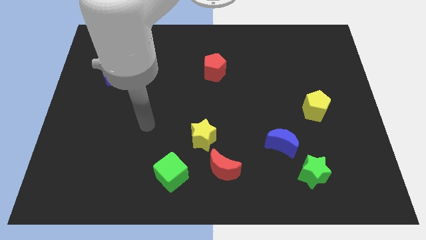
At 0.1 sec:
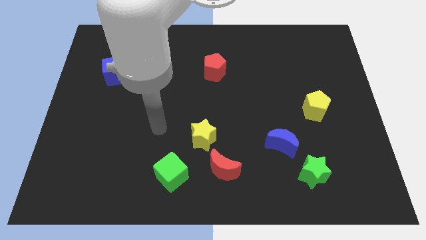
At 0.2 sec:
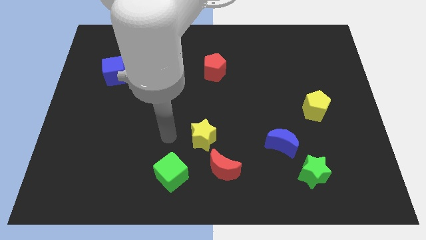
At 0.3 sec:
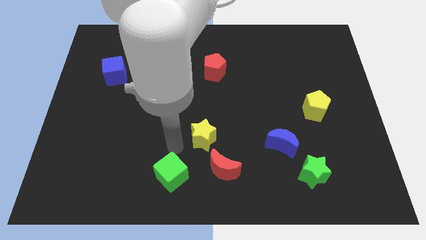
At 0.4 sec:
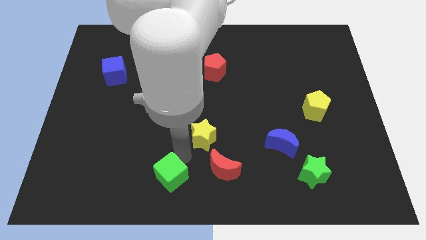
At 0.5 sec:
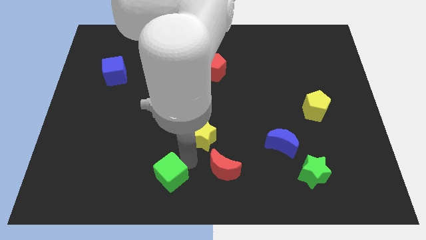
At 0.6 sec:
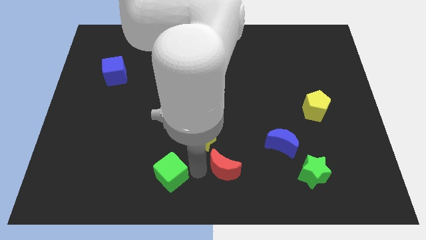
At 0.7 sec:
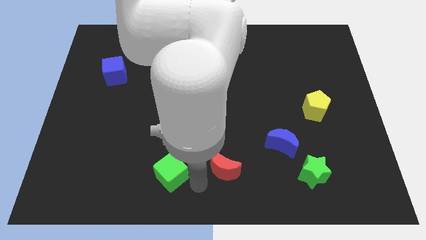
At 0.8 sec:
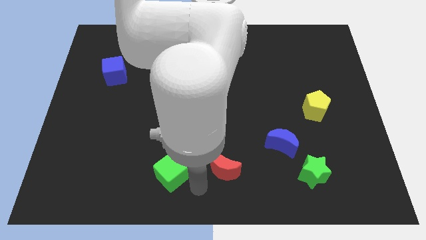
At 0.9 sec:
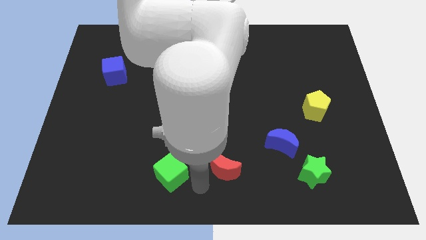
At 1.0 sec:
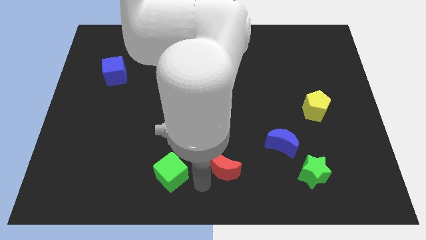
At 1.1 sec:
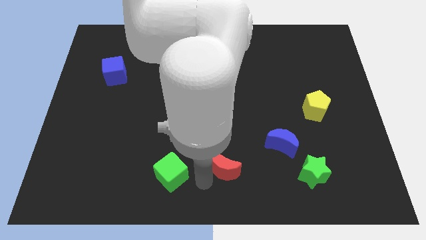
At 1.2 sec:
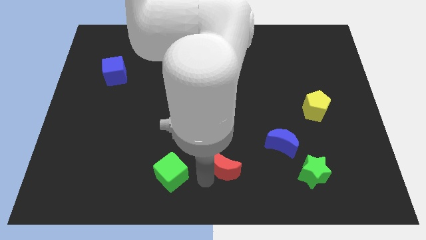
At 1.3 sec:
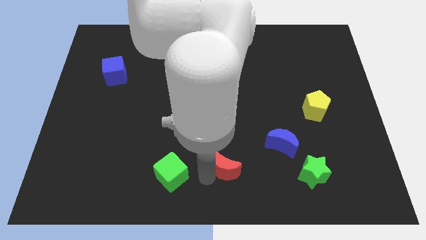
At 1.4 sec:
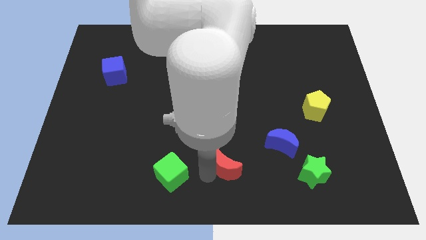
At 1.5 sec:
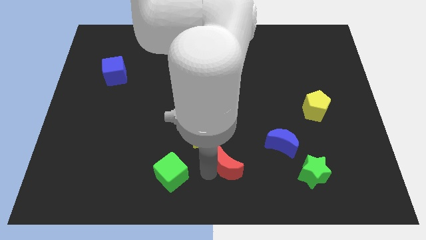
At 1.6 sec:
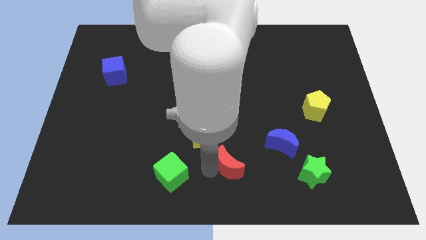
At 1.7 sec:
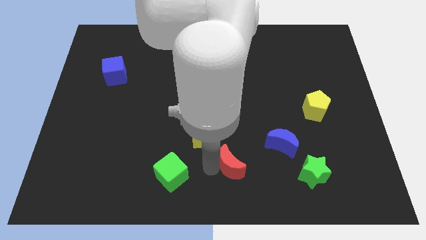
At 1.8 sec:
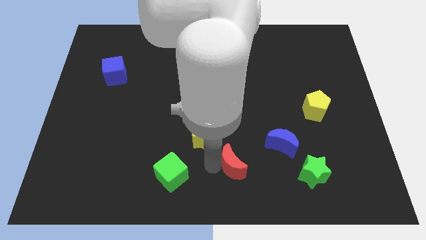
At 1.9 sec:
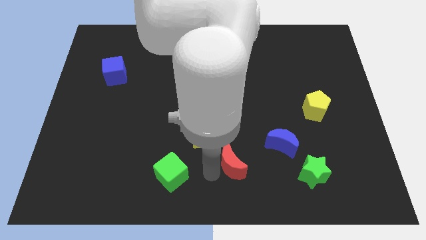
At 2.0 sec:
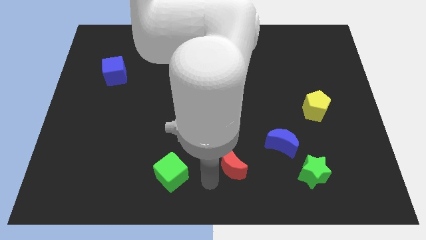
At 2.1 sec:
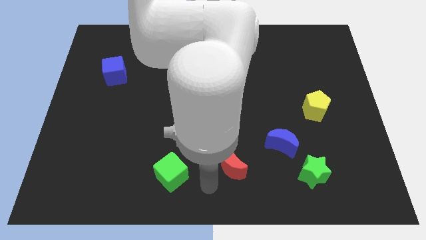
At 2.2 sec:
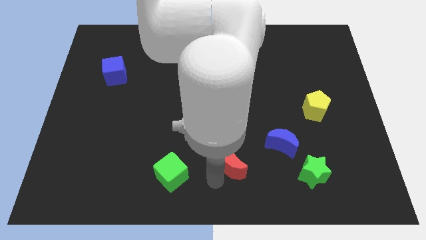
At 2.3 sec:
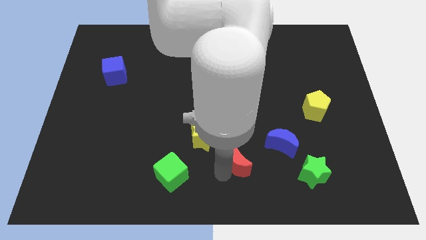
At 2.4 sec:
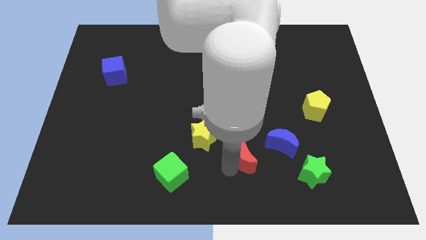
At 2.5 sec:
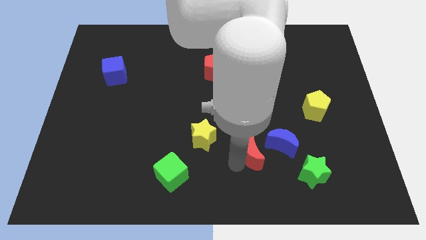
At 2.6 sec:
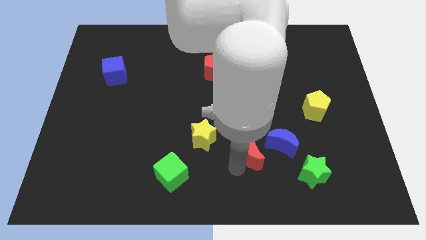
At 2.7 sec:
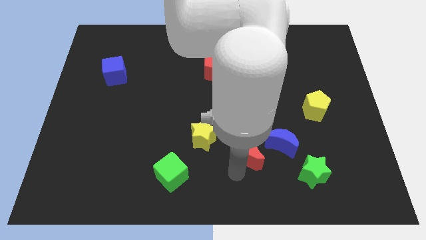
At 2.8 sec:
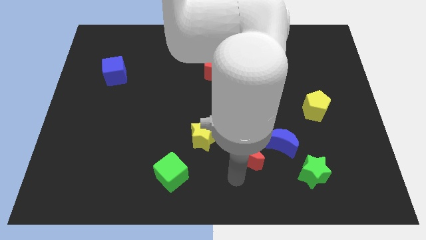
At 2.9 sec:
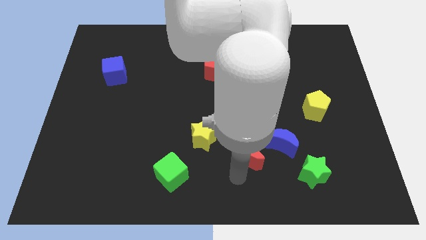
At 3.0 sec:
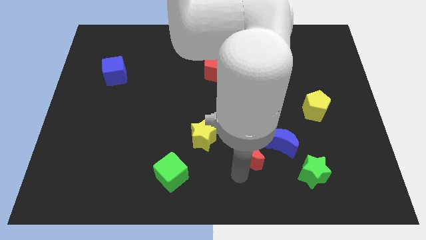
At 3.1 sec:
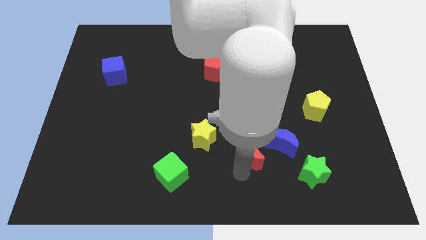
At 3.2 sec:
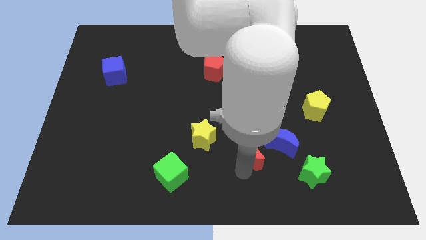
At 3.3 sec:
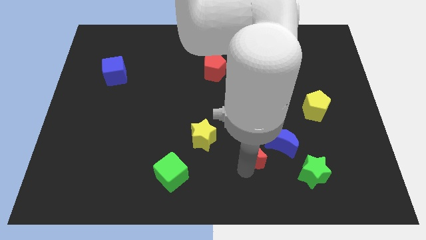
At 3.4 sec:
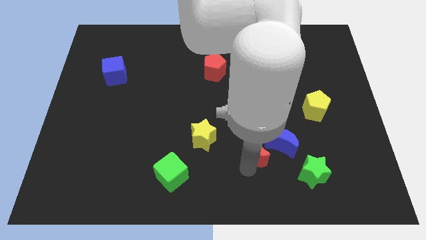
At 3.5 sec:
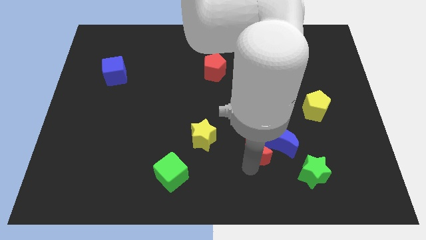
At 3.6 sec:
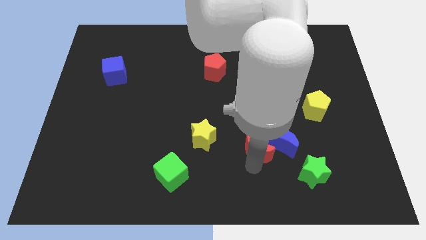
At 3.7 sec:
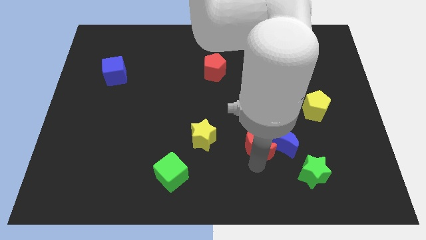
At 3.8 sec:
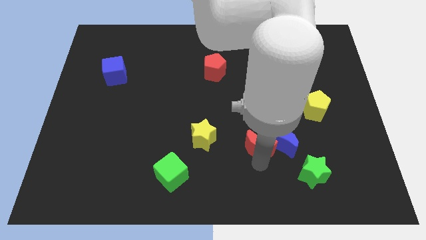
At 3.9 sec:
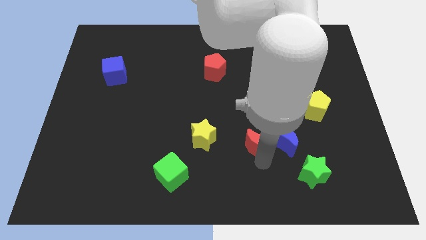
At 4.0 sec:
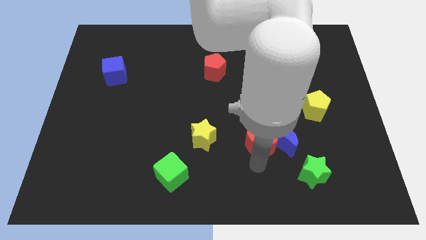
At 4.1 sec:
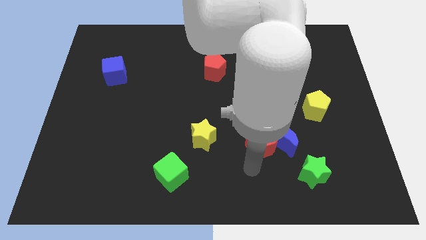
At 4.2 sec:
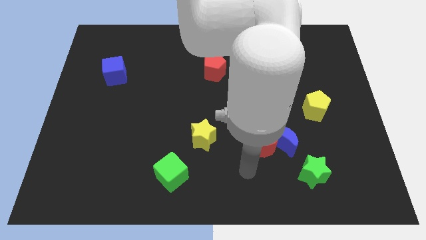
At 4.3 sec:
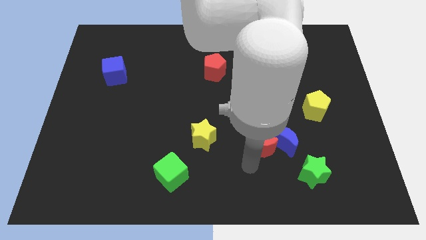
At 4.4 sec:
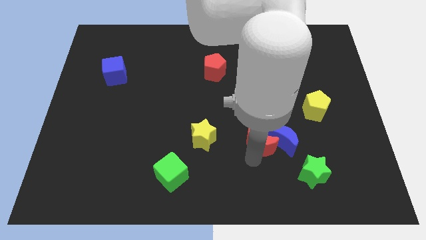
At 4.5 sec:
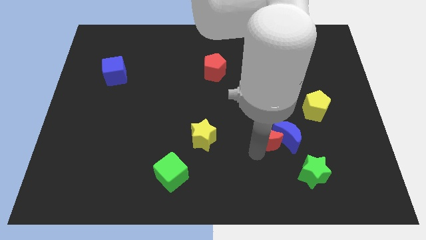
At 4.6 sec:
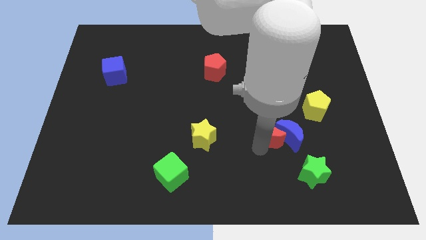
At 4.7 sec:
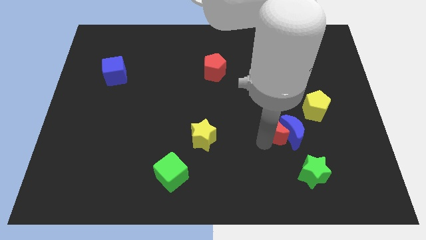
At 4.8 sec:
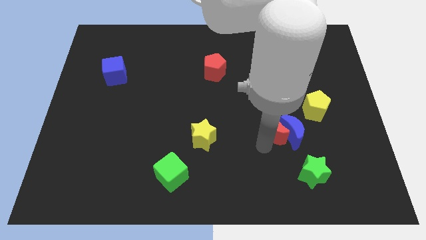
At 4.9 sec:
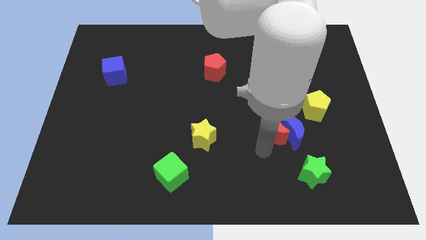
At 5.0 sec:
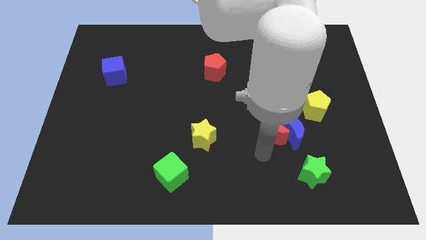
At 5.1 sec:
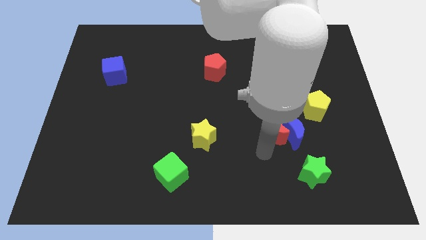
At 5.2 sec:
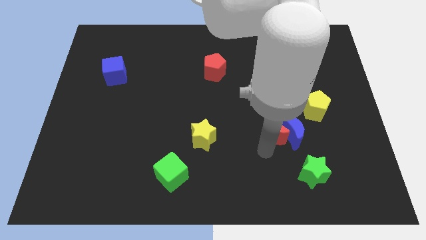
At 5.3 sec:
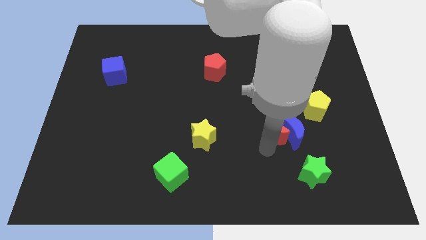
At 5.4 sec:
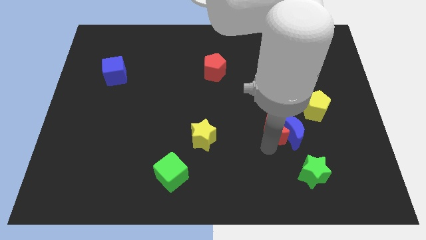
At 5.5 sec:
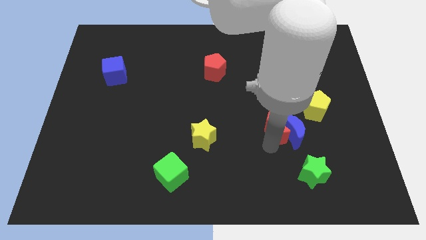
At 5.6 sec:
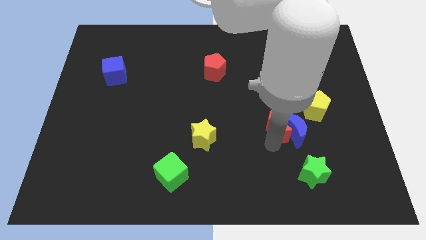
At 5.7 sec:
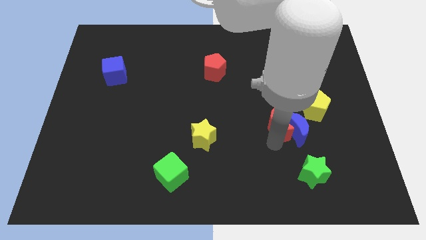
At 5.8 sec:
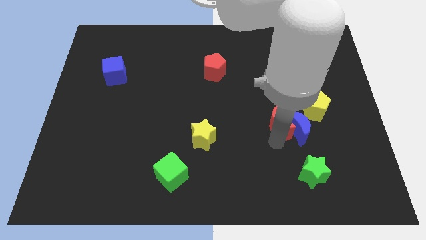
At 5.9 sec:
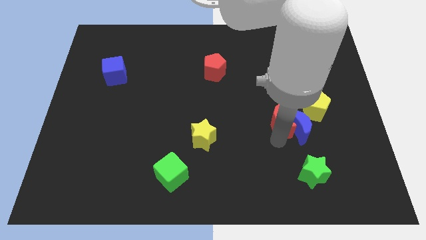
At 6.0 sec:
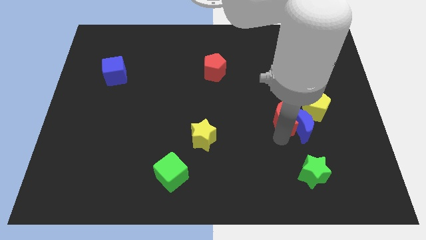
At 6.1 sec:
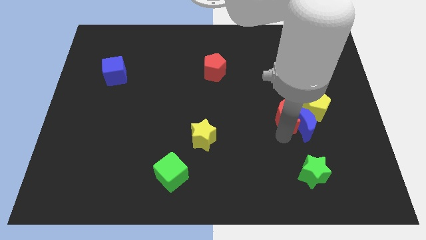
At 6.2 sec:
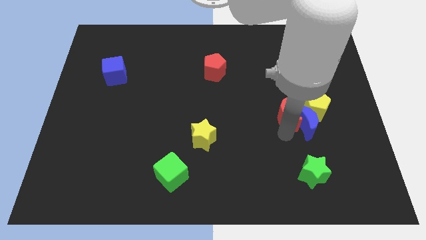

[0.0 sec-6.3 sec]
push the red moon up and then right

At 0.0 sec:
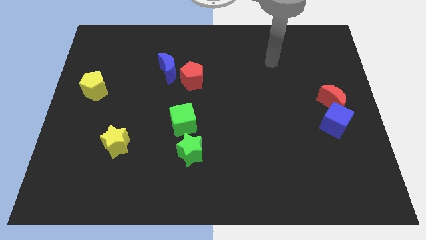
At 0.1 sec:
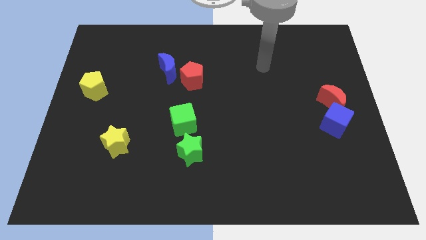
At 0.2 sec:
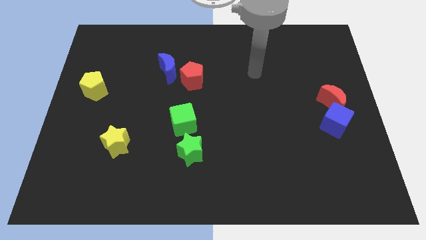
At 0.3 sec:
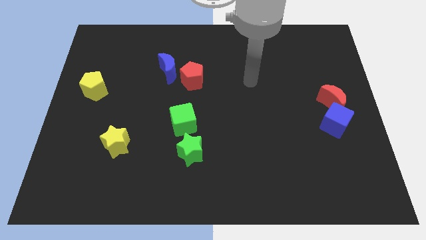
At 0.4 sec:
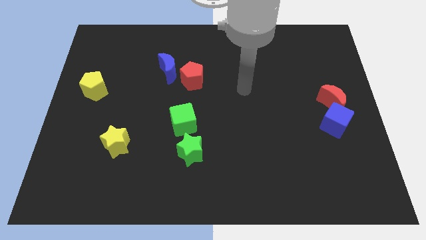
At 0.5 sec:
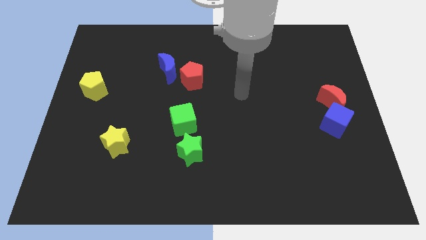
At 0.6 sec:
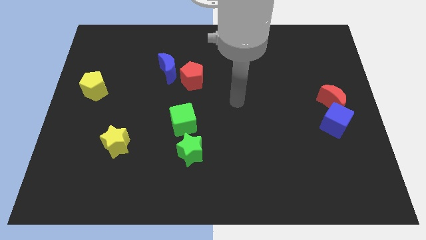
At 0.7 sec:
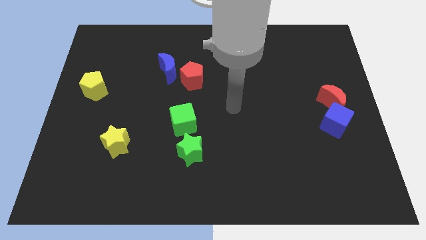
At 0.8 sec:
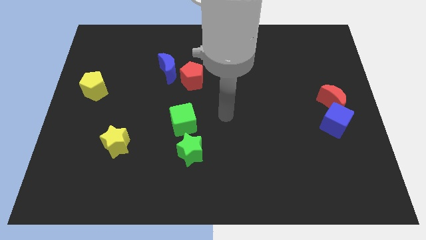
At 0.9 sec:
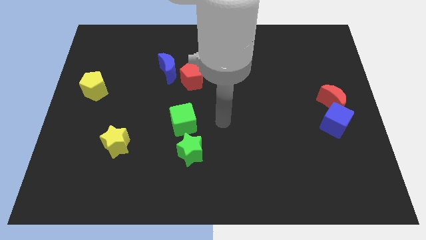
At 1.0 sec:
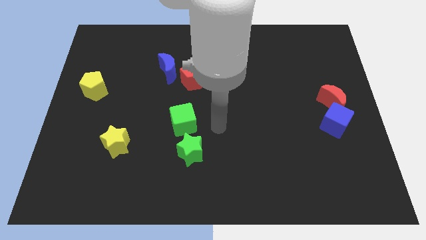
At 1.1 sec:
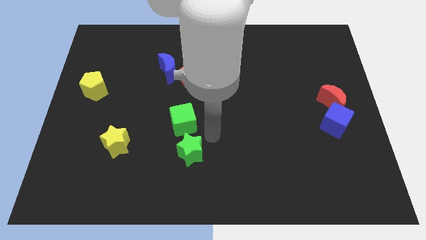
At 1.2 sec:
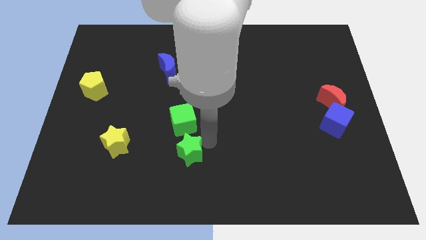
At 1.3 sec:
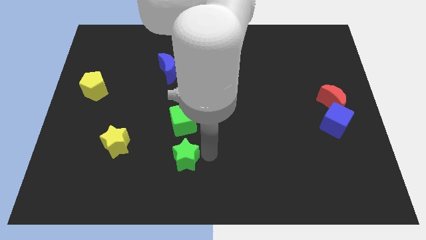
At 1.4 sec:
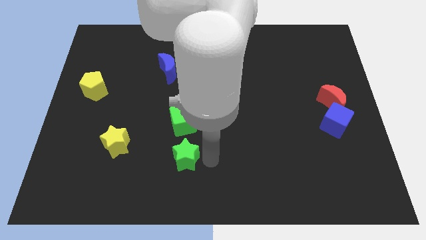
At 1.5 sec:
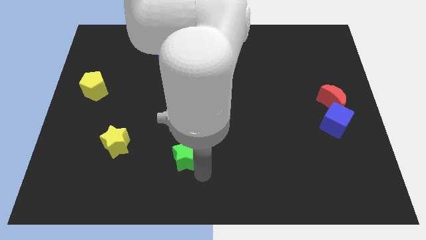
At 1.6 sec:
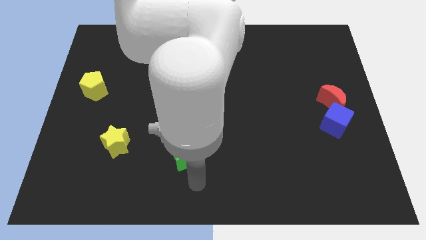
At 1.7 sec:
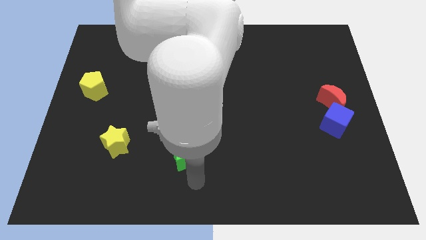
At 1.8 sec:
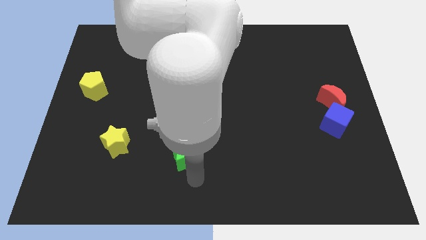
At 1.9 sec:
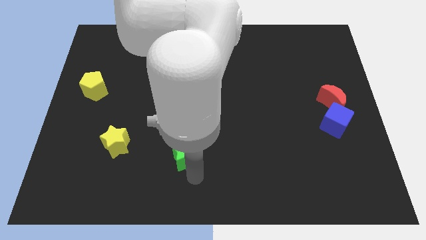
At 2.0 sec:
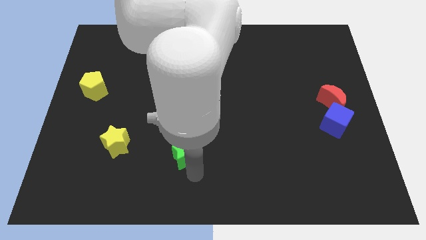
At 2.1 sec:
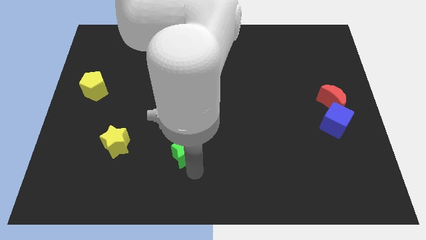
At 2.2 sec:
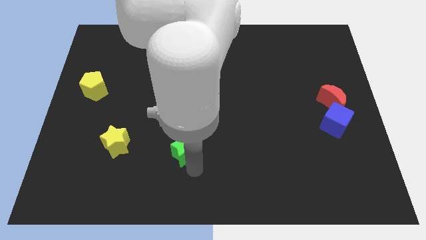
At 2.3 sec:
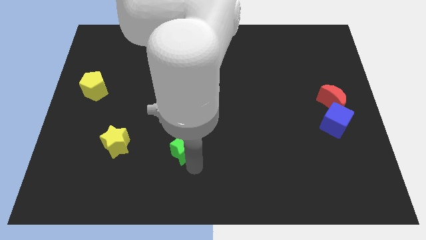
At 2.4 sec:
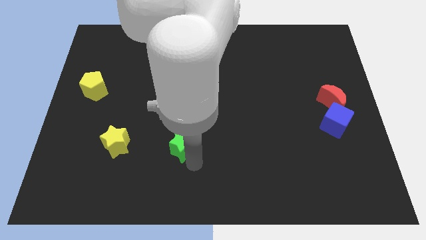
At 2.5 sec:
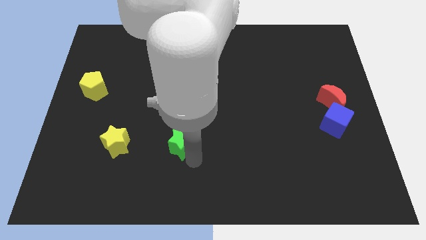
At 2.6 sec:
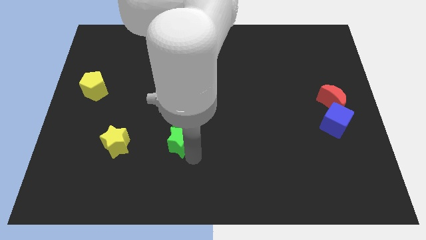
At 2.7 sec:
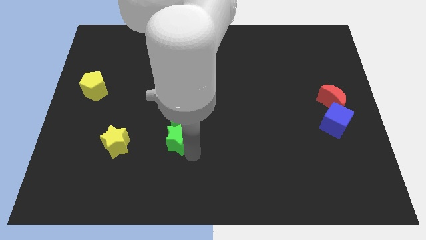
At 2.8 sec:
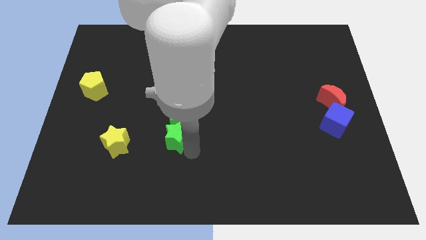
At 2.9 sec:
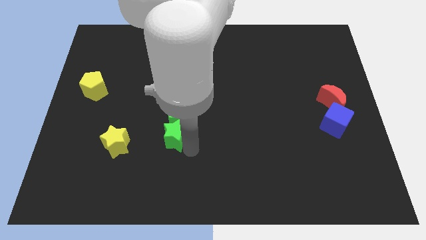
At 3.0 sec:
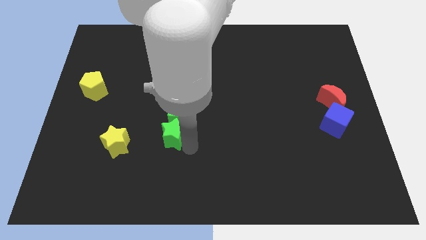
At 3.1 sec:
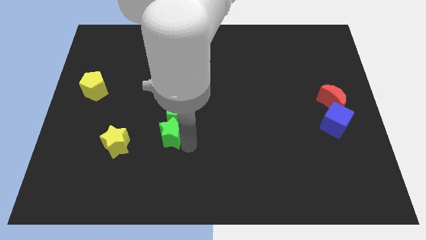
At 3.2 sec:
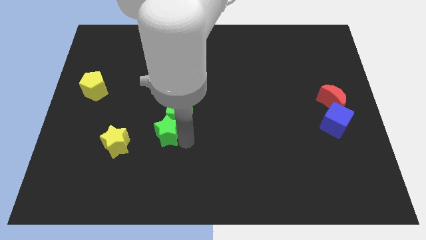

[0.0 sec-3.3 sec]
slide the green star upwards and left diagonally somewhat
